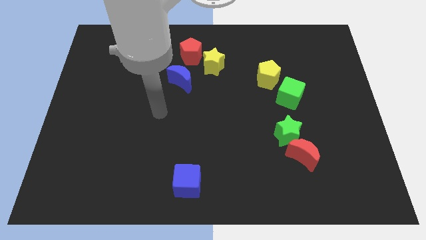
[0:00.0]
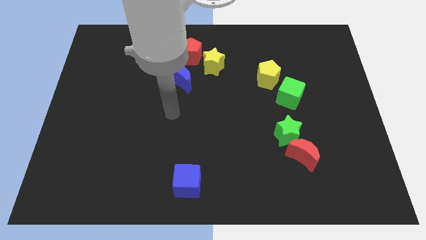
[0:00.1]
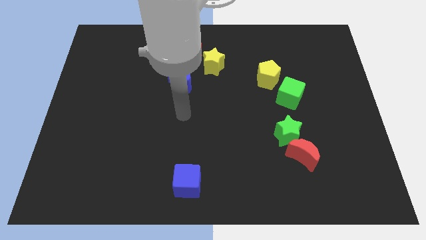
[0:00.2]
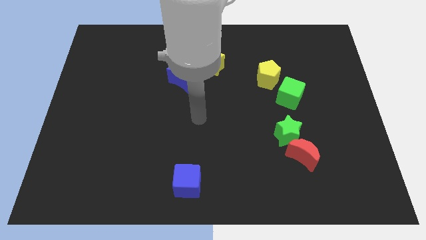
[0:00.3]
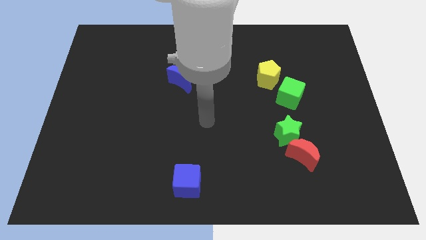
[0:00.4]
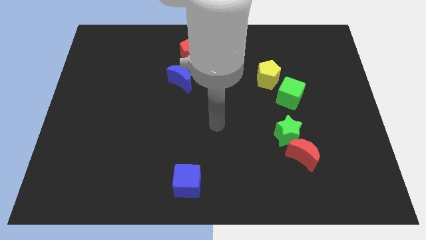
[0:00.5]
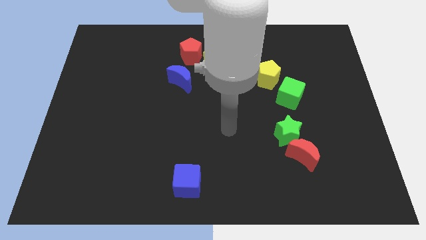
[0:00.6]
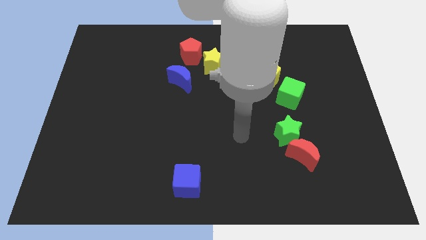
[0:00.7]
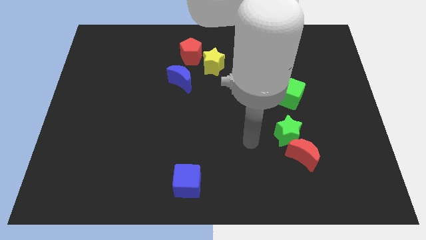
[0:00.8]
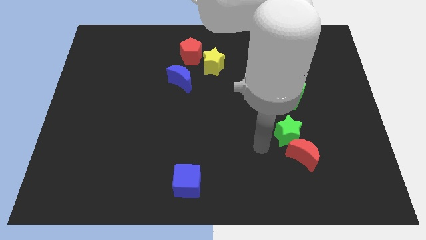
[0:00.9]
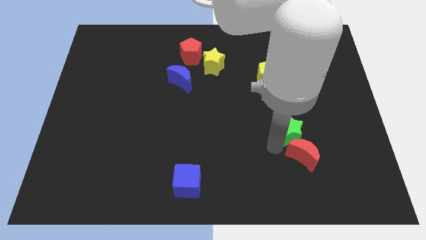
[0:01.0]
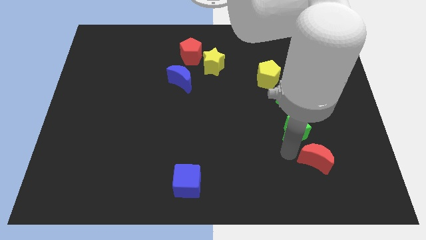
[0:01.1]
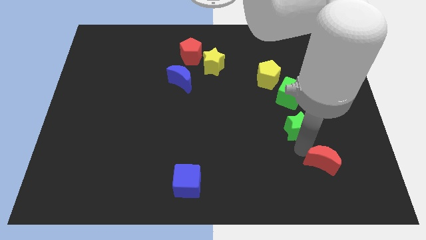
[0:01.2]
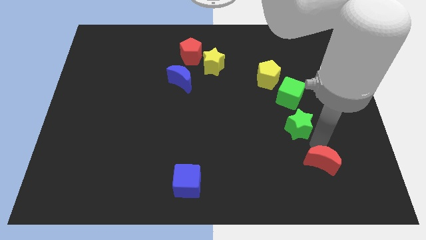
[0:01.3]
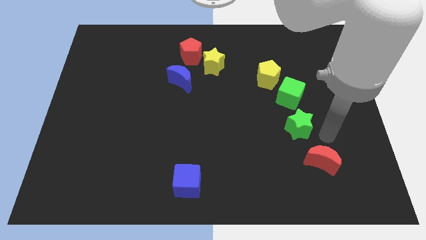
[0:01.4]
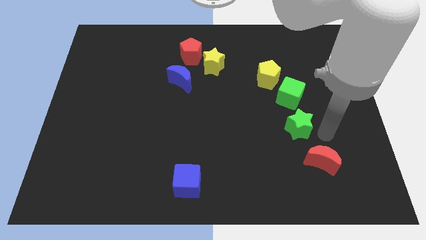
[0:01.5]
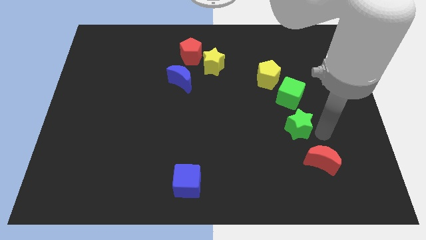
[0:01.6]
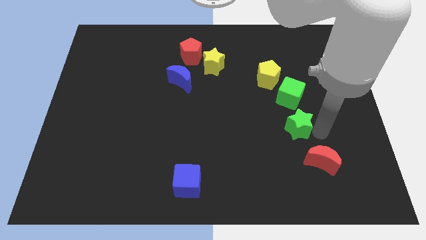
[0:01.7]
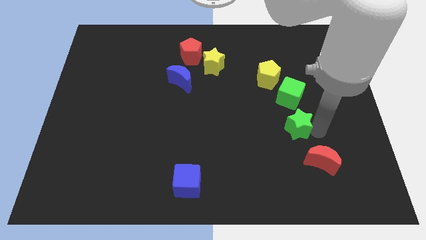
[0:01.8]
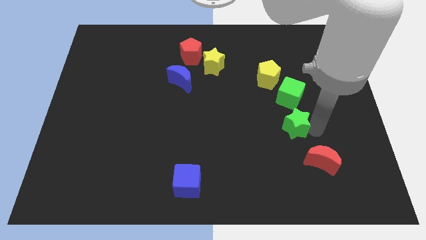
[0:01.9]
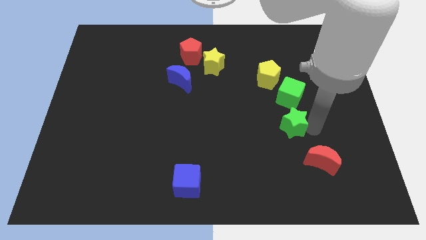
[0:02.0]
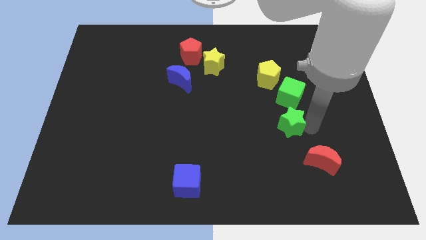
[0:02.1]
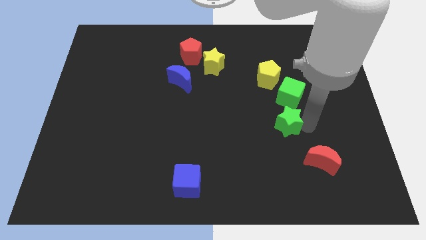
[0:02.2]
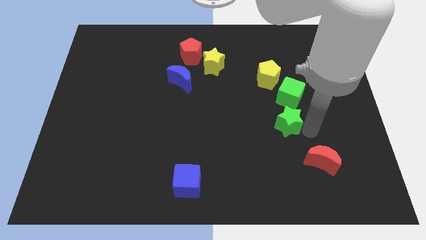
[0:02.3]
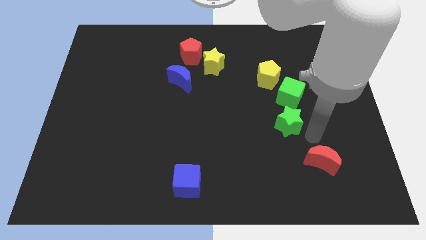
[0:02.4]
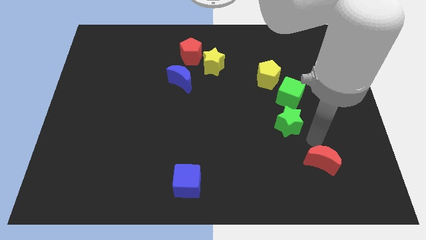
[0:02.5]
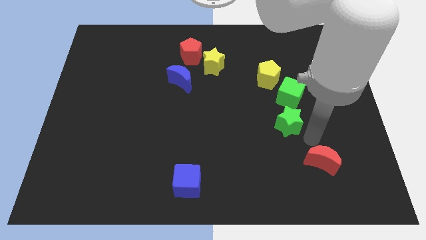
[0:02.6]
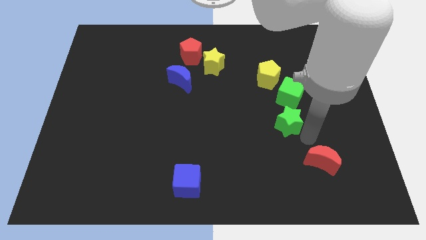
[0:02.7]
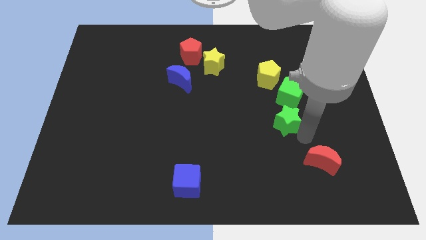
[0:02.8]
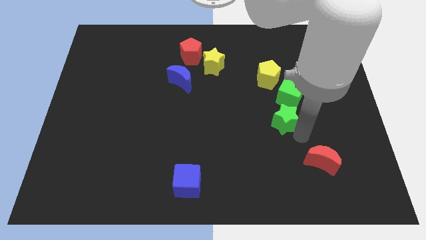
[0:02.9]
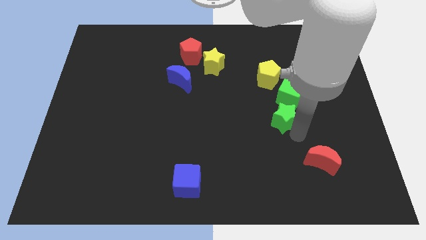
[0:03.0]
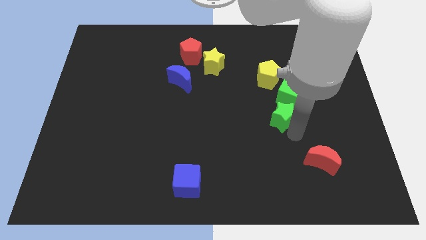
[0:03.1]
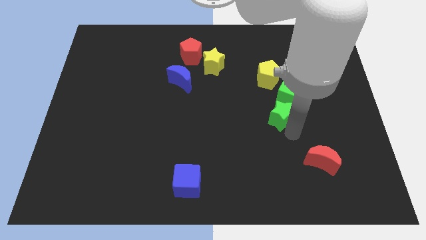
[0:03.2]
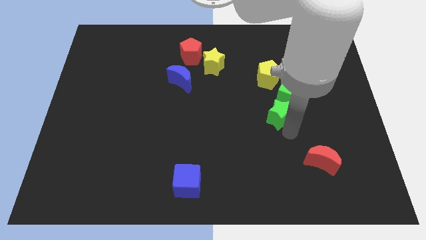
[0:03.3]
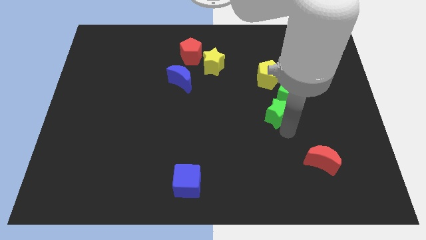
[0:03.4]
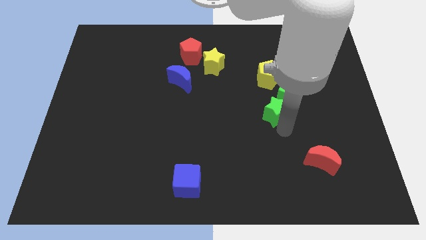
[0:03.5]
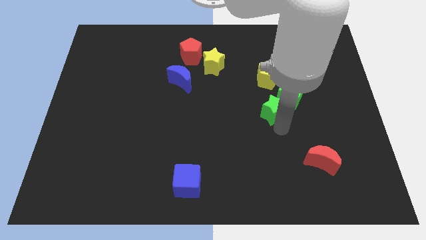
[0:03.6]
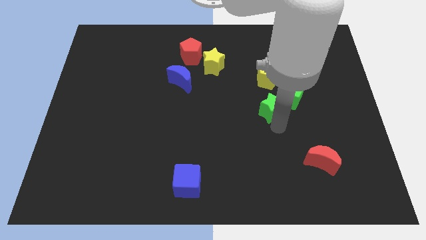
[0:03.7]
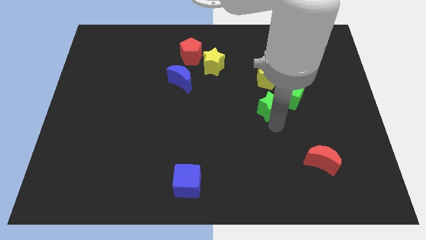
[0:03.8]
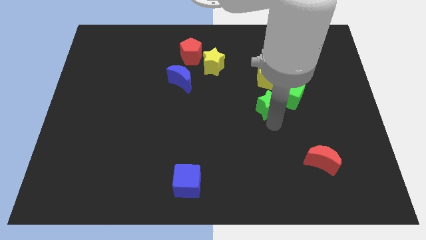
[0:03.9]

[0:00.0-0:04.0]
slightly move the green star diagonally up and to the left

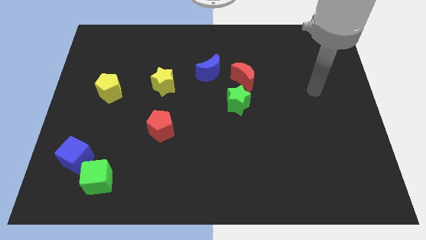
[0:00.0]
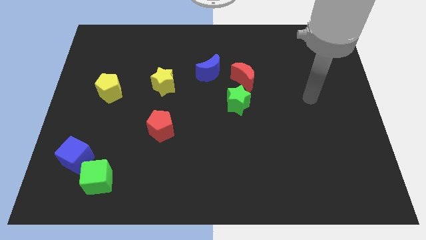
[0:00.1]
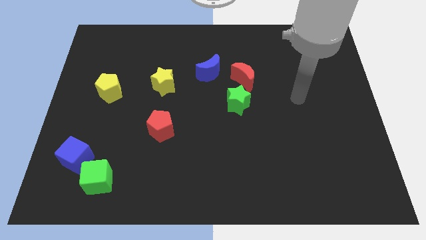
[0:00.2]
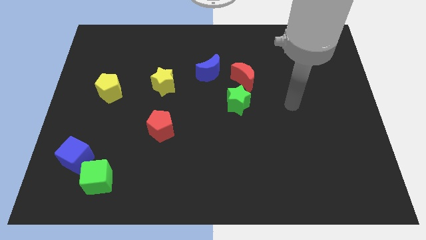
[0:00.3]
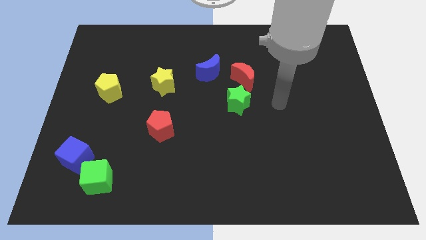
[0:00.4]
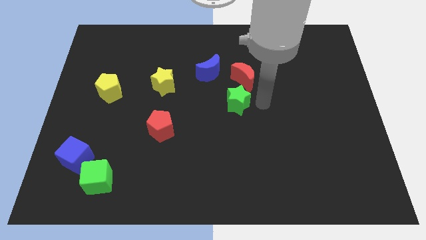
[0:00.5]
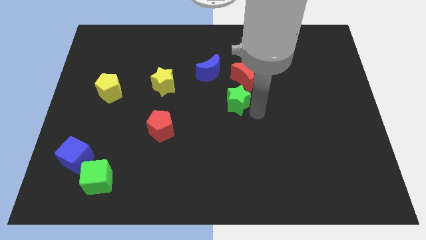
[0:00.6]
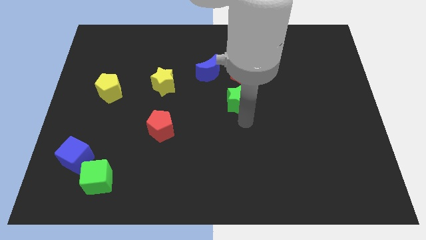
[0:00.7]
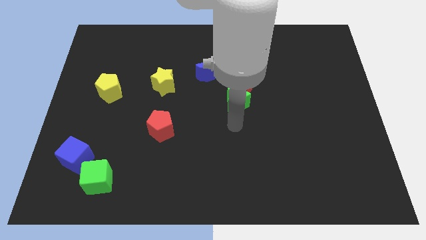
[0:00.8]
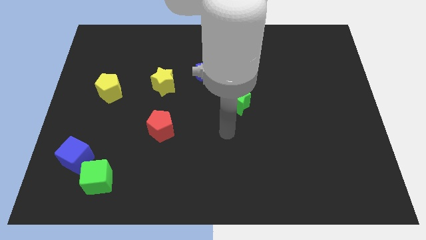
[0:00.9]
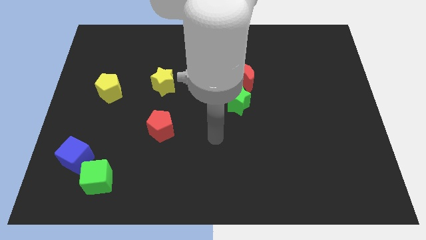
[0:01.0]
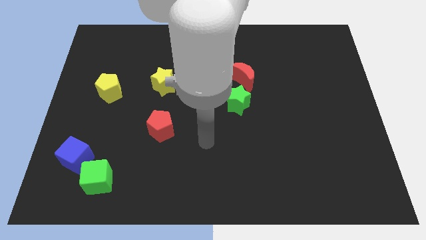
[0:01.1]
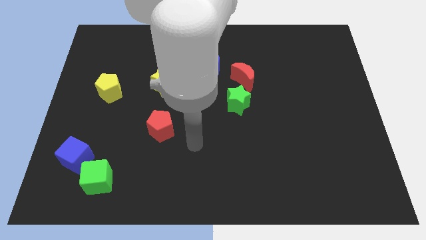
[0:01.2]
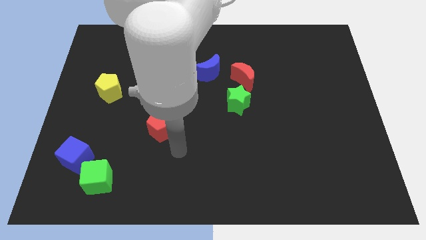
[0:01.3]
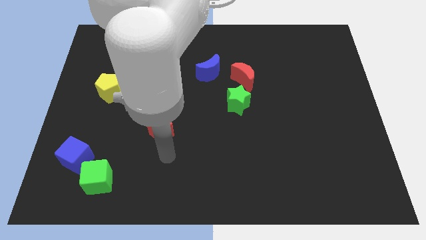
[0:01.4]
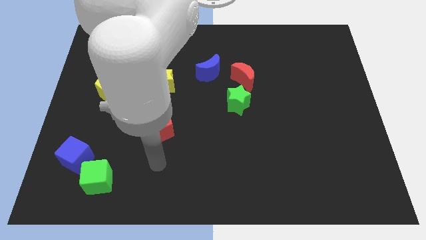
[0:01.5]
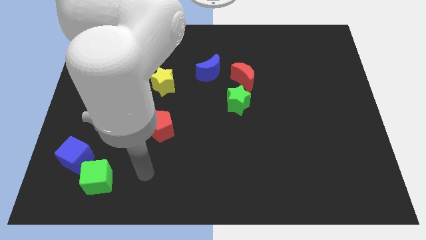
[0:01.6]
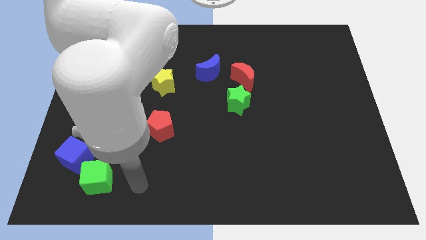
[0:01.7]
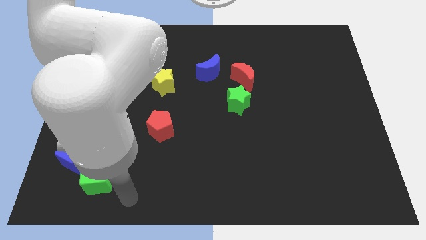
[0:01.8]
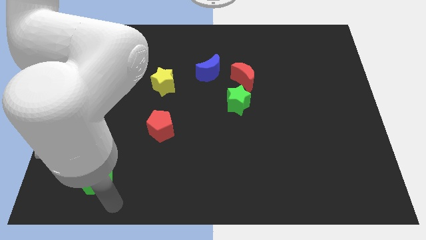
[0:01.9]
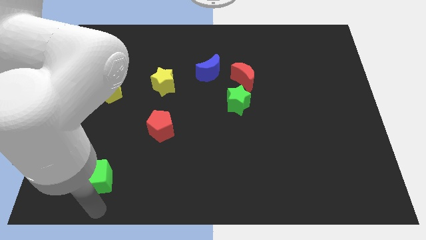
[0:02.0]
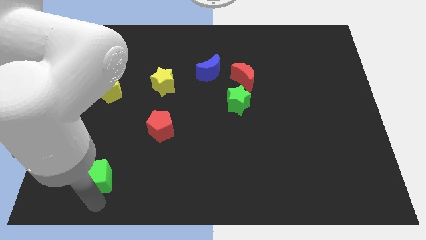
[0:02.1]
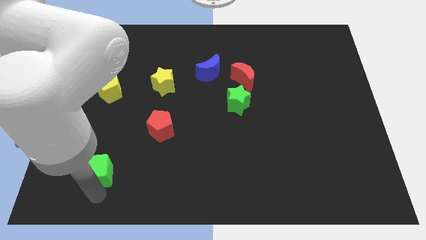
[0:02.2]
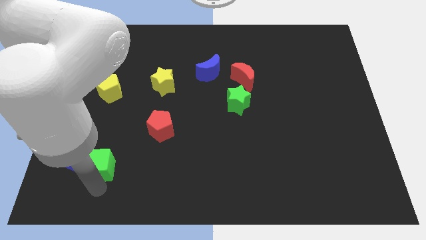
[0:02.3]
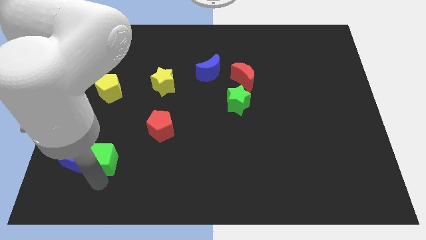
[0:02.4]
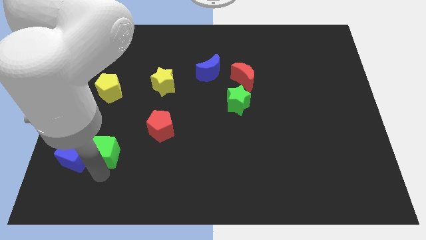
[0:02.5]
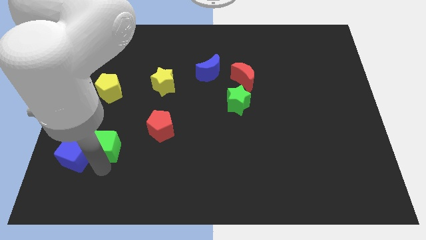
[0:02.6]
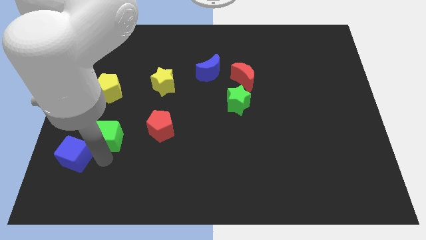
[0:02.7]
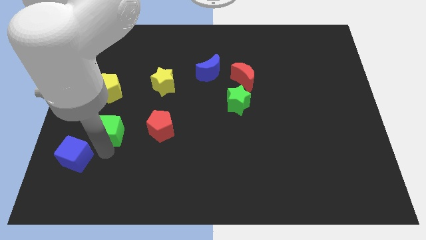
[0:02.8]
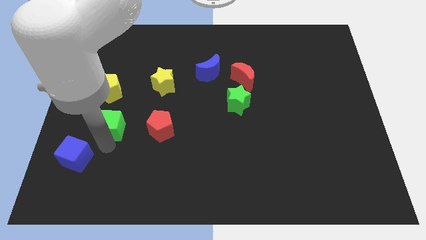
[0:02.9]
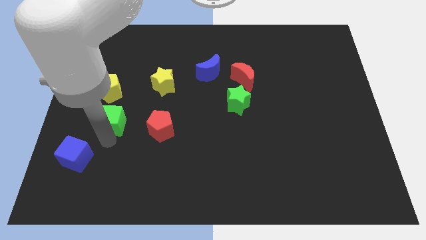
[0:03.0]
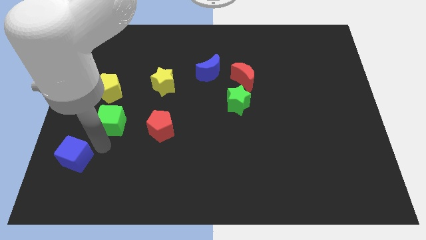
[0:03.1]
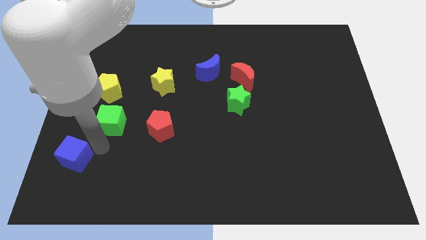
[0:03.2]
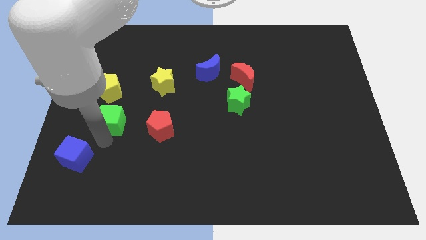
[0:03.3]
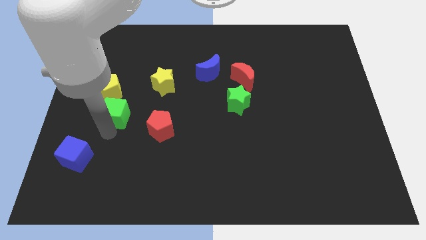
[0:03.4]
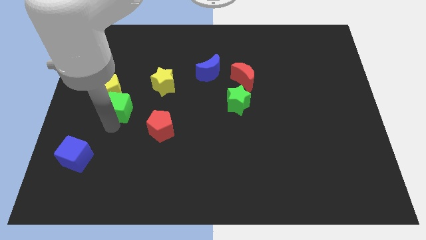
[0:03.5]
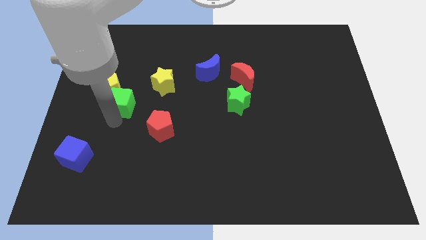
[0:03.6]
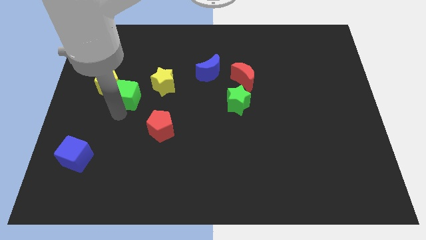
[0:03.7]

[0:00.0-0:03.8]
move the green cube upwards

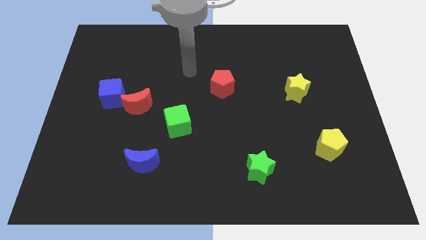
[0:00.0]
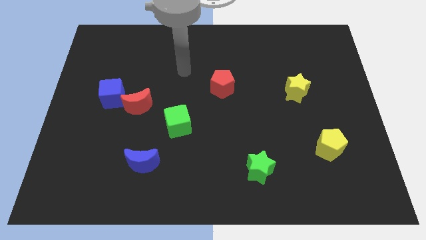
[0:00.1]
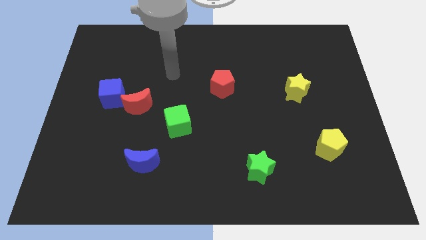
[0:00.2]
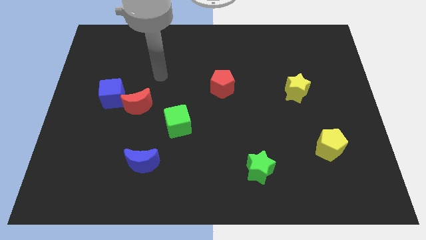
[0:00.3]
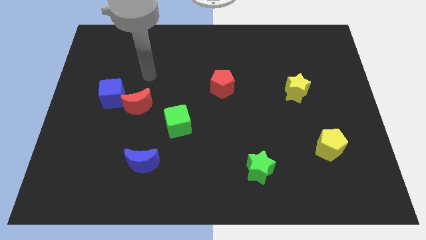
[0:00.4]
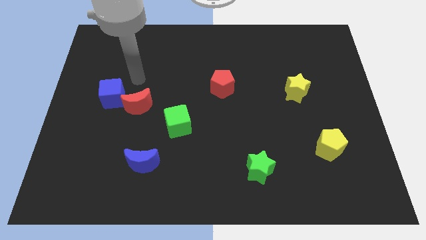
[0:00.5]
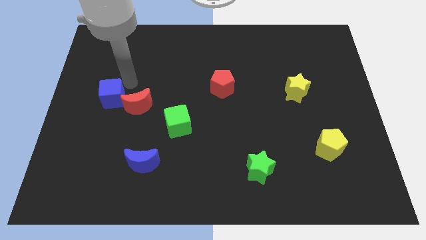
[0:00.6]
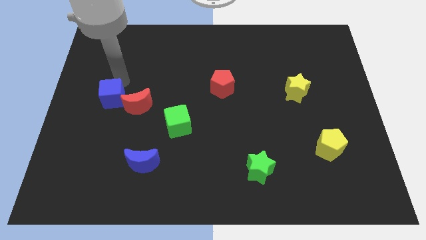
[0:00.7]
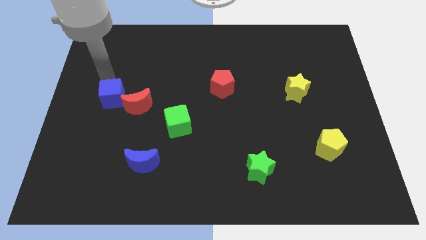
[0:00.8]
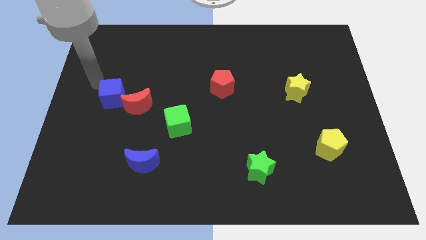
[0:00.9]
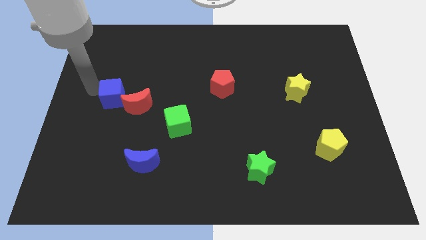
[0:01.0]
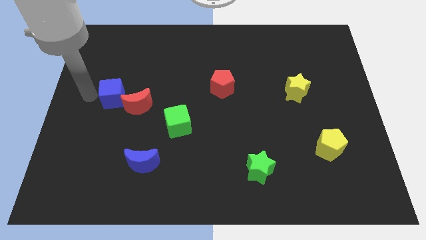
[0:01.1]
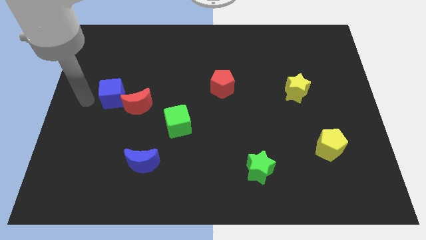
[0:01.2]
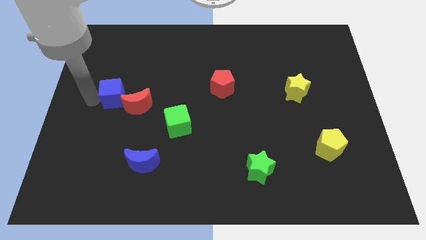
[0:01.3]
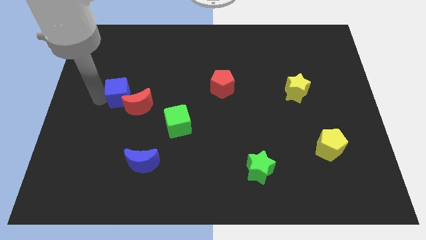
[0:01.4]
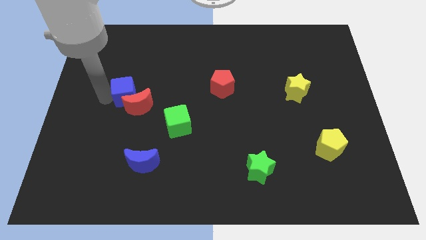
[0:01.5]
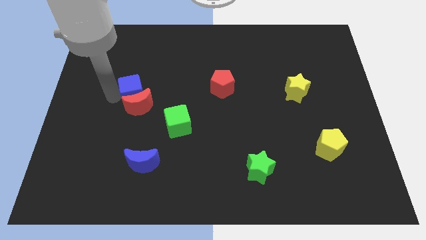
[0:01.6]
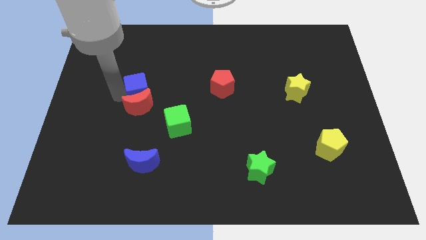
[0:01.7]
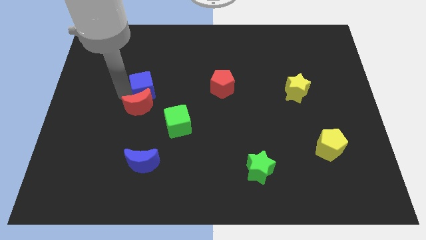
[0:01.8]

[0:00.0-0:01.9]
slide the blue cube slightly to the right
